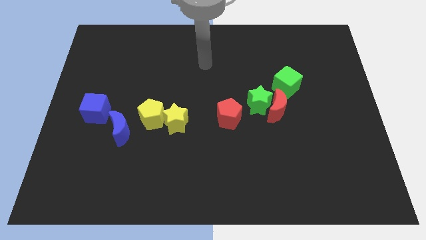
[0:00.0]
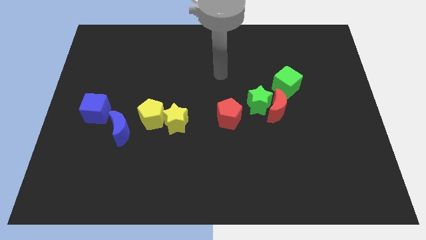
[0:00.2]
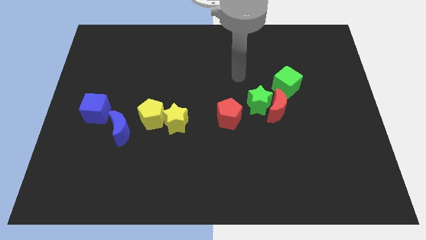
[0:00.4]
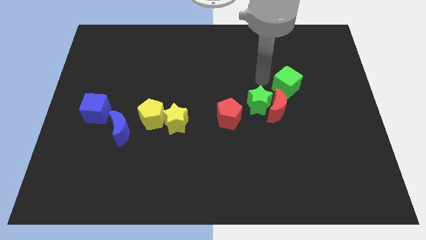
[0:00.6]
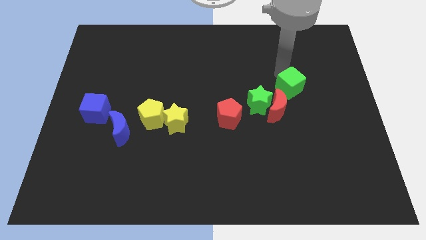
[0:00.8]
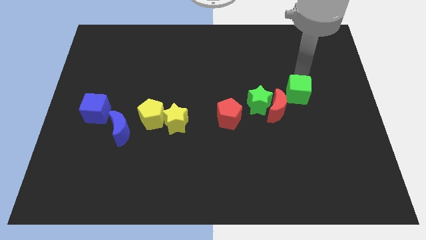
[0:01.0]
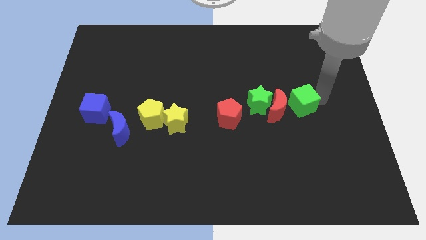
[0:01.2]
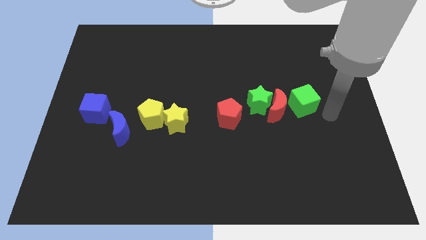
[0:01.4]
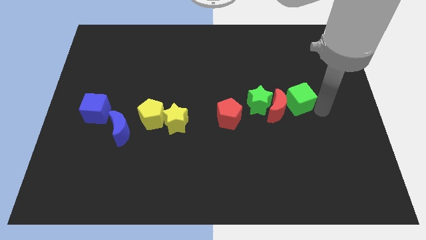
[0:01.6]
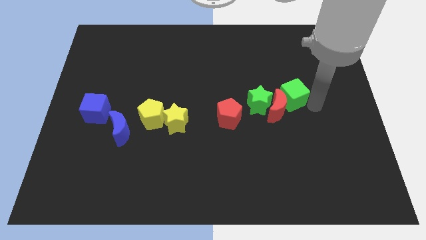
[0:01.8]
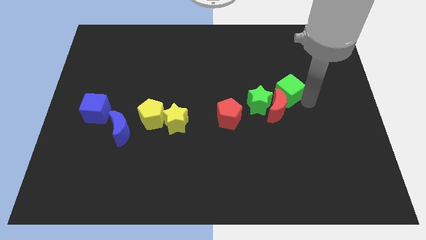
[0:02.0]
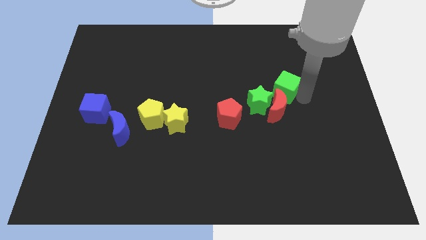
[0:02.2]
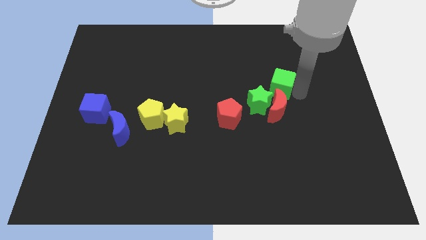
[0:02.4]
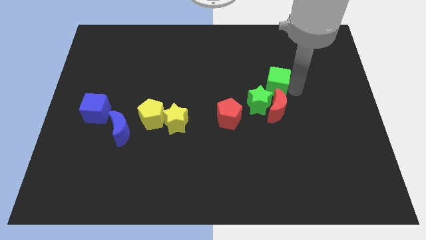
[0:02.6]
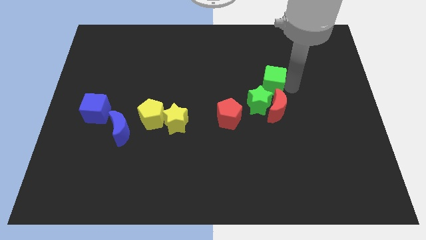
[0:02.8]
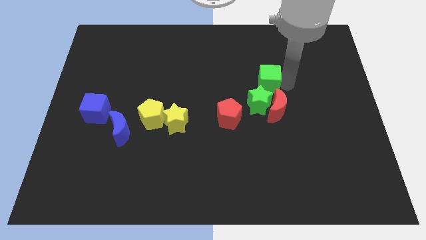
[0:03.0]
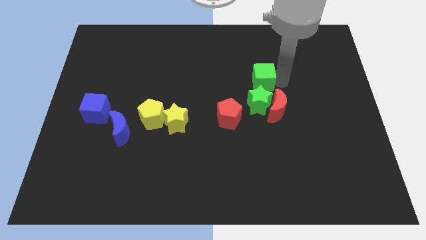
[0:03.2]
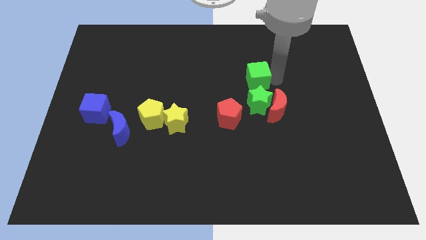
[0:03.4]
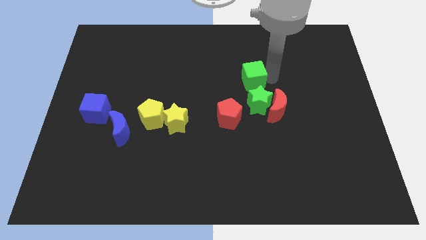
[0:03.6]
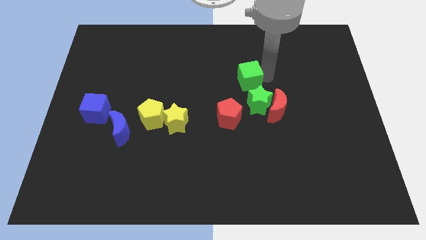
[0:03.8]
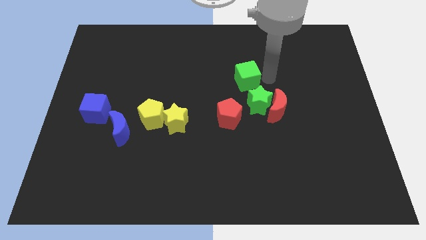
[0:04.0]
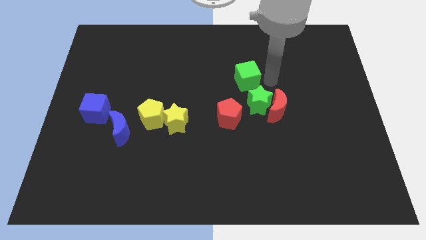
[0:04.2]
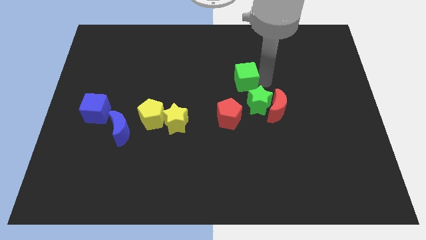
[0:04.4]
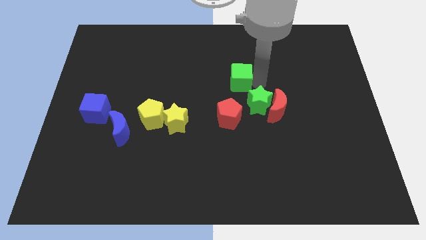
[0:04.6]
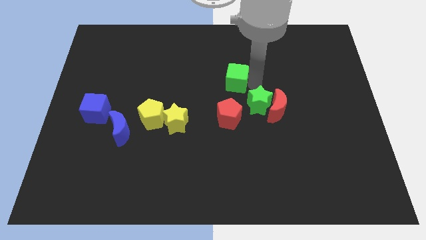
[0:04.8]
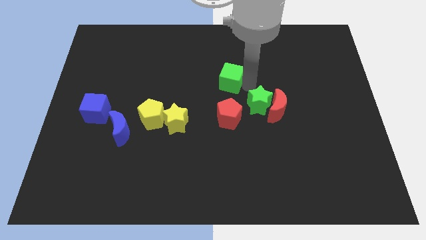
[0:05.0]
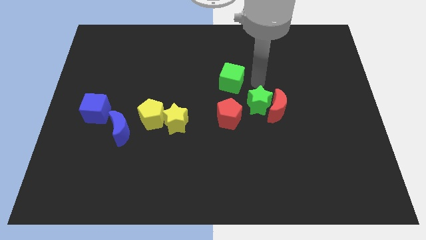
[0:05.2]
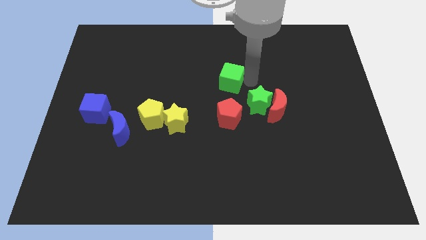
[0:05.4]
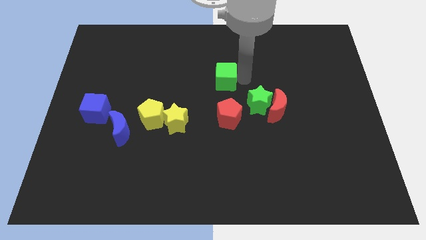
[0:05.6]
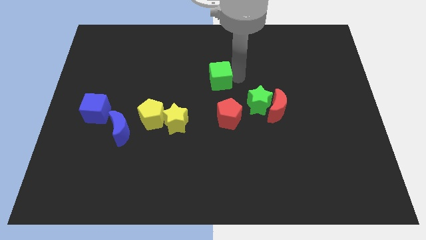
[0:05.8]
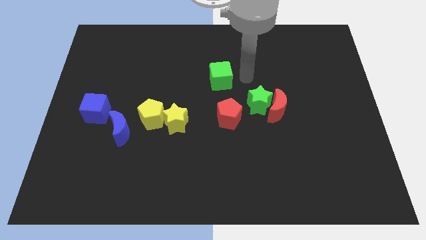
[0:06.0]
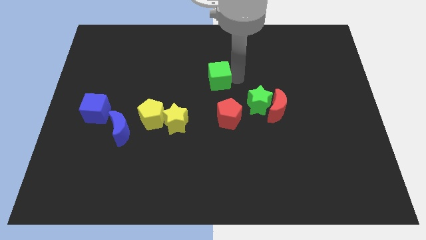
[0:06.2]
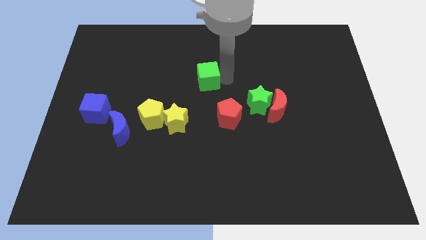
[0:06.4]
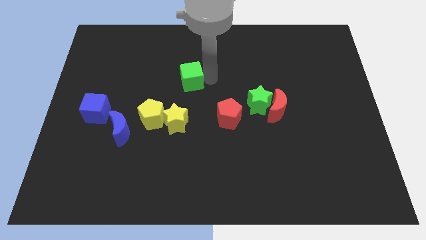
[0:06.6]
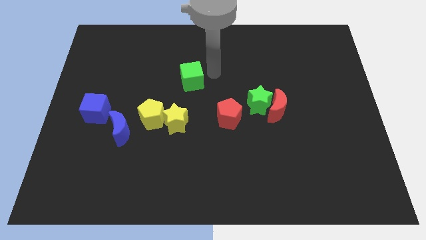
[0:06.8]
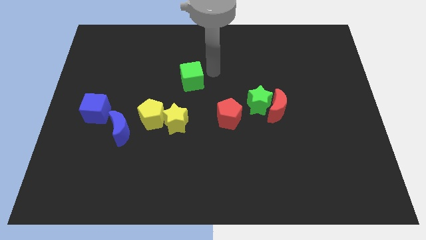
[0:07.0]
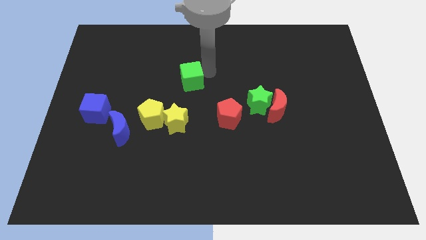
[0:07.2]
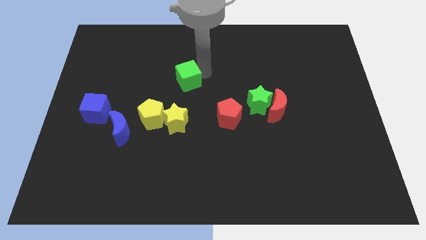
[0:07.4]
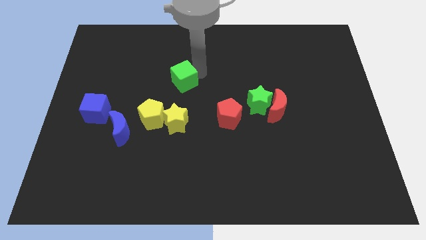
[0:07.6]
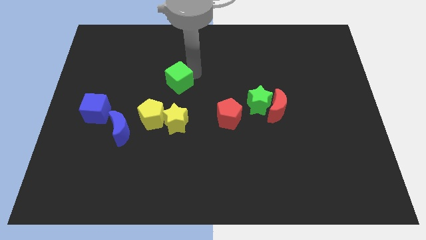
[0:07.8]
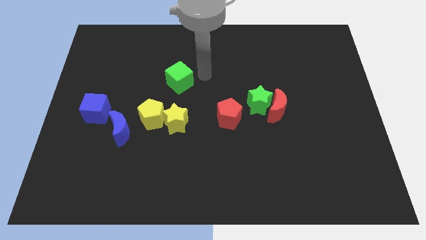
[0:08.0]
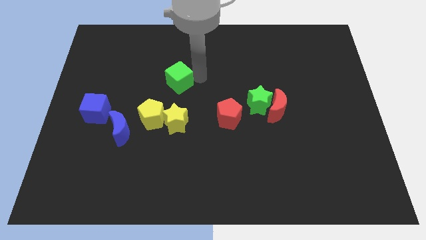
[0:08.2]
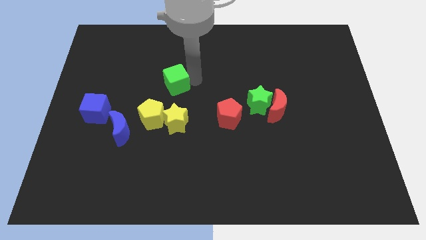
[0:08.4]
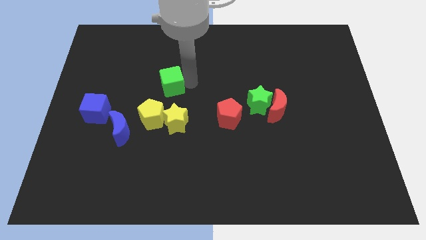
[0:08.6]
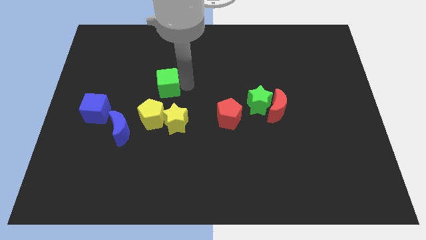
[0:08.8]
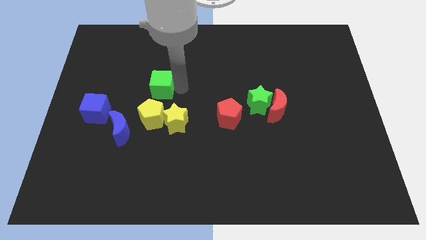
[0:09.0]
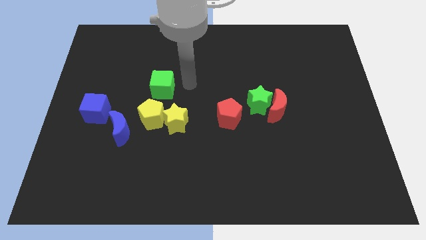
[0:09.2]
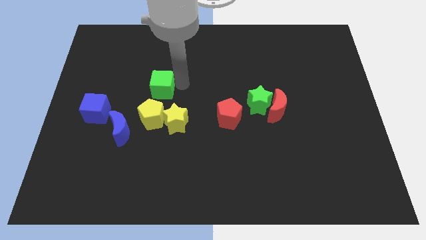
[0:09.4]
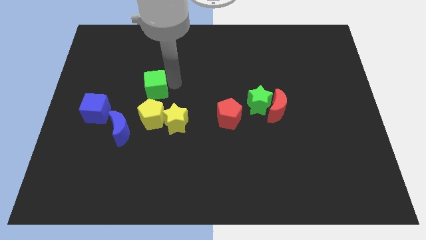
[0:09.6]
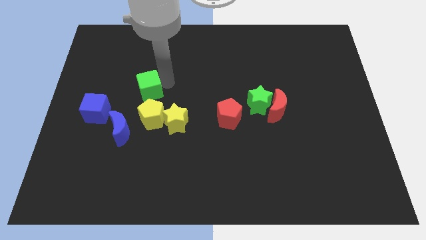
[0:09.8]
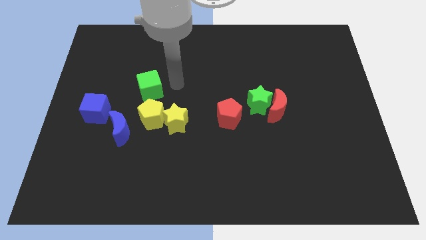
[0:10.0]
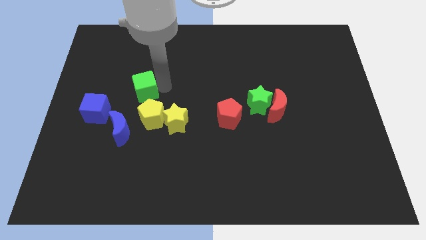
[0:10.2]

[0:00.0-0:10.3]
slide the green cube diagonally up and to the right of the blue cube

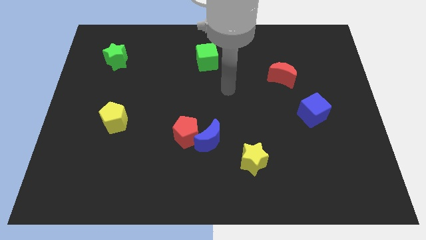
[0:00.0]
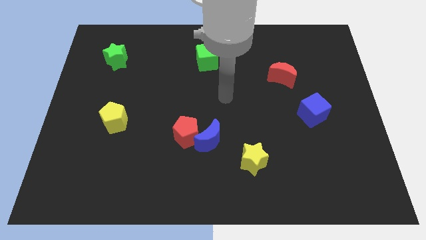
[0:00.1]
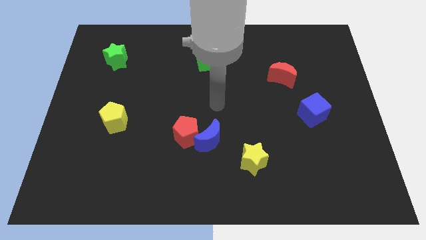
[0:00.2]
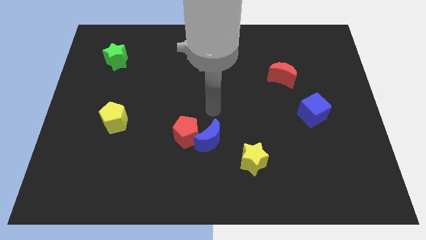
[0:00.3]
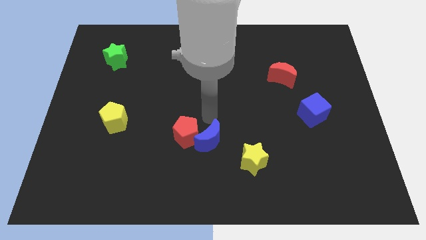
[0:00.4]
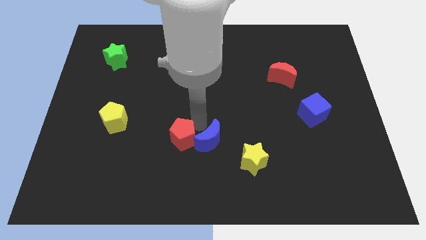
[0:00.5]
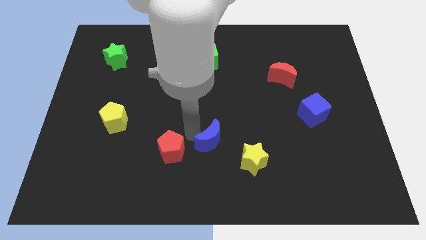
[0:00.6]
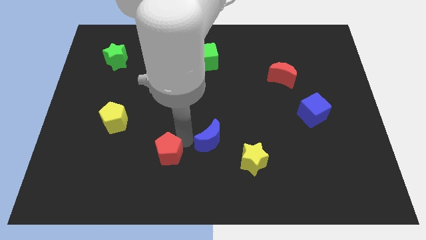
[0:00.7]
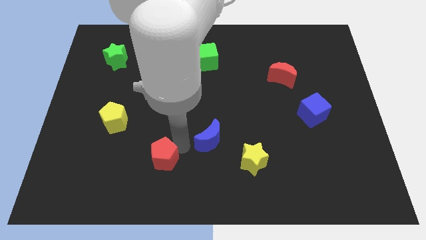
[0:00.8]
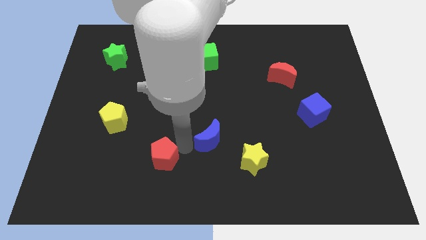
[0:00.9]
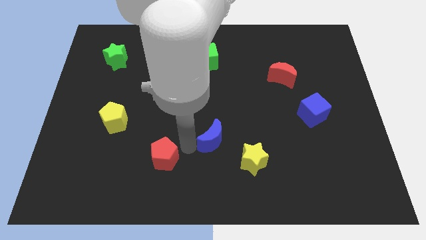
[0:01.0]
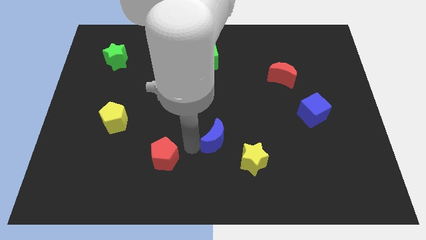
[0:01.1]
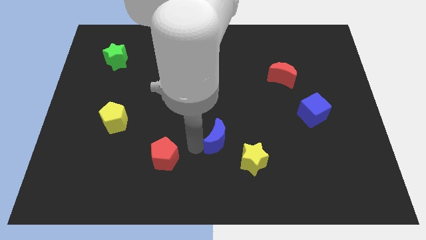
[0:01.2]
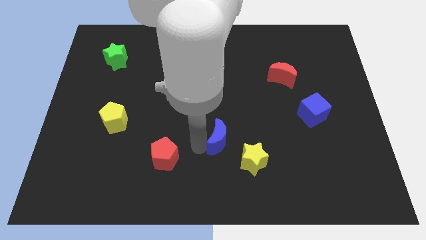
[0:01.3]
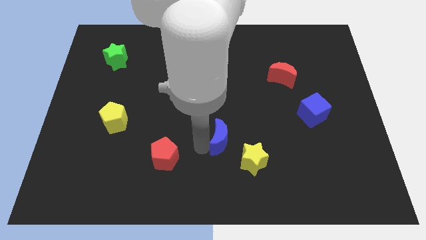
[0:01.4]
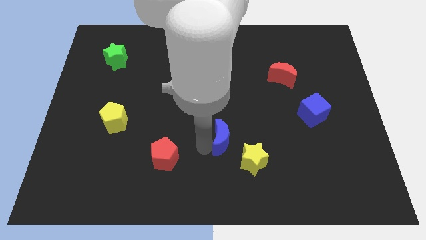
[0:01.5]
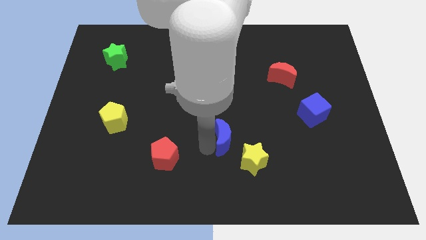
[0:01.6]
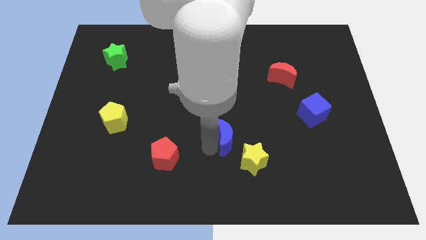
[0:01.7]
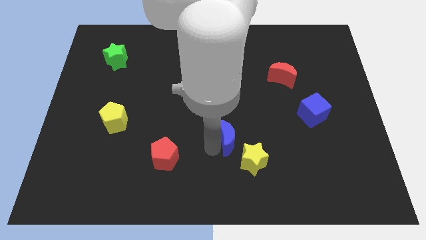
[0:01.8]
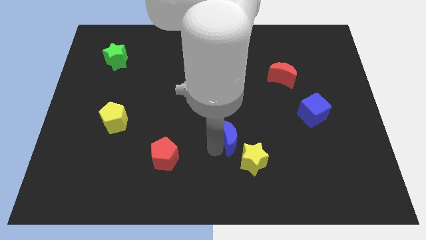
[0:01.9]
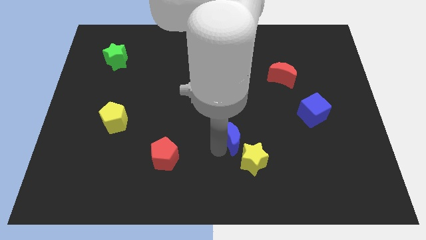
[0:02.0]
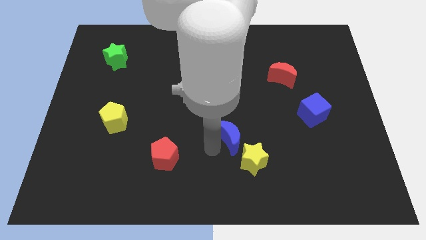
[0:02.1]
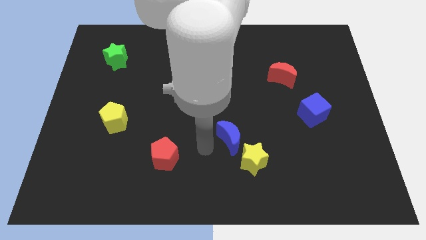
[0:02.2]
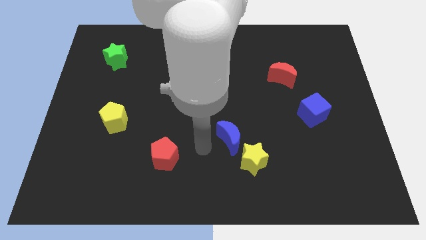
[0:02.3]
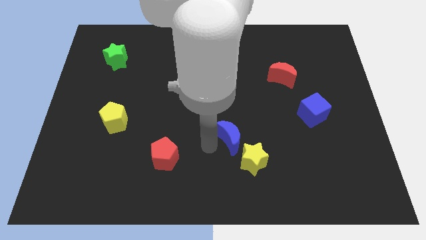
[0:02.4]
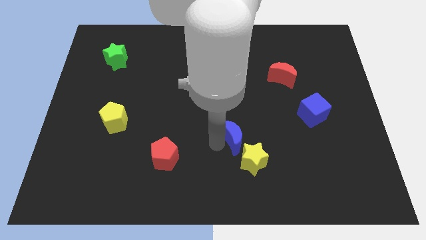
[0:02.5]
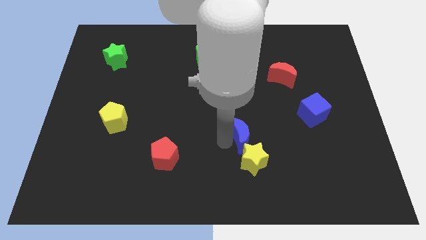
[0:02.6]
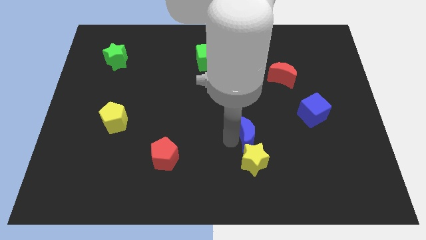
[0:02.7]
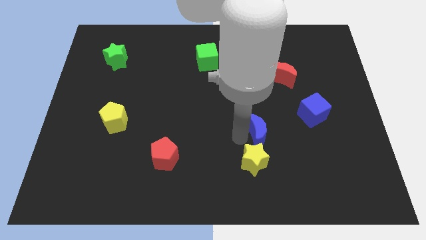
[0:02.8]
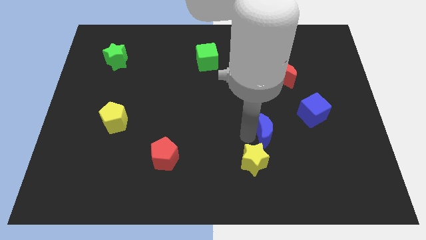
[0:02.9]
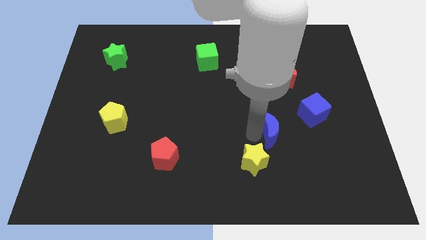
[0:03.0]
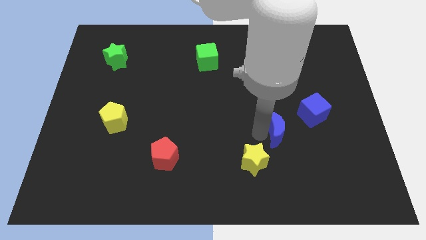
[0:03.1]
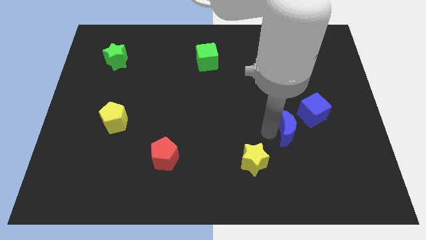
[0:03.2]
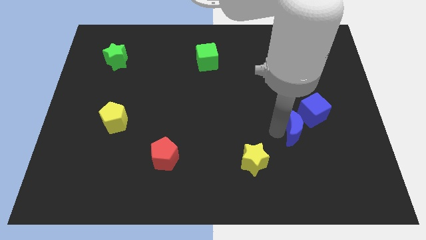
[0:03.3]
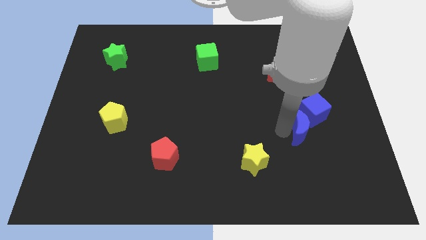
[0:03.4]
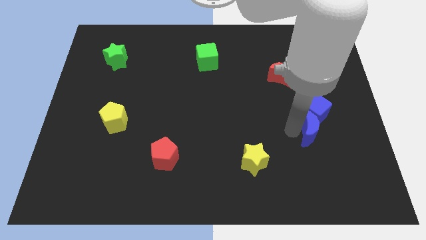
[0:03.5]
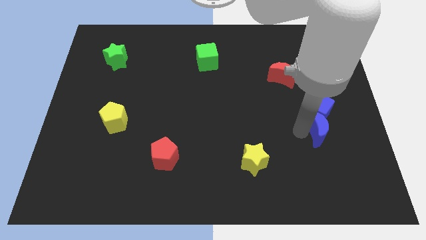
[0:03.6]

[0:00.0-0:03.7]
move the blue moon diagonally down and to the right of the blue cube
